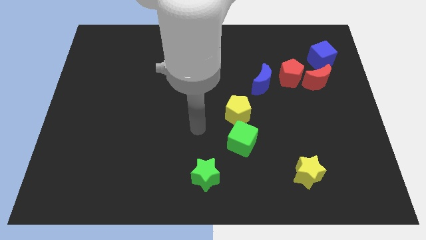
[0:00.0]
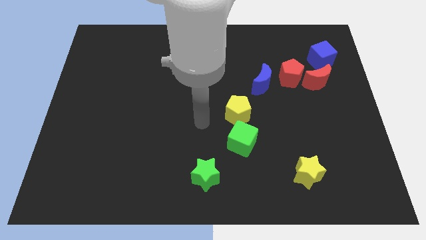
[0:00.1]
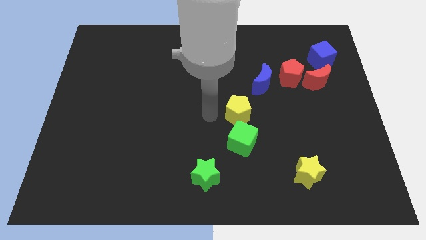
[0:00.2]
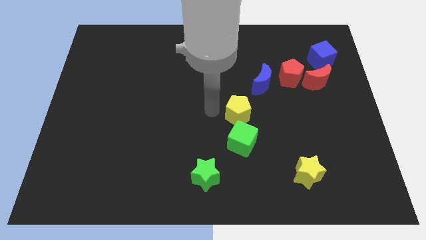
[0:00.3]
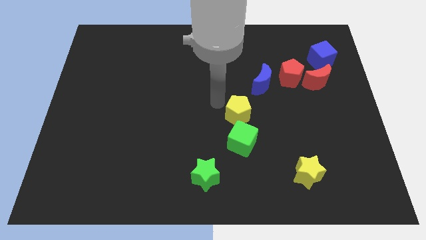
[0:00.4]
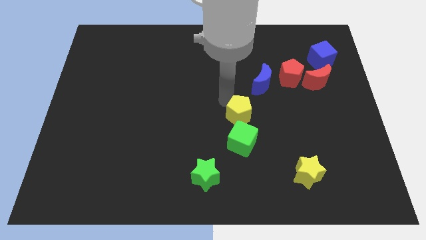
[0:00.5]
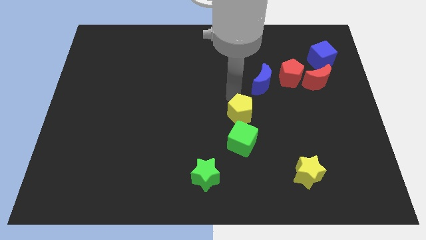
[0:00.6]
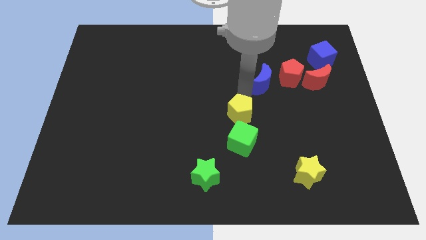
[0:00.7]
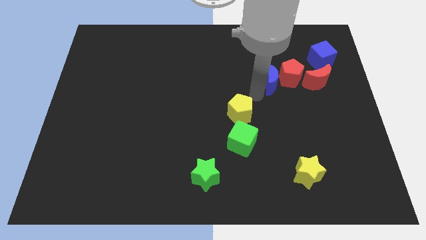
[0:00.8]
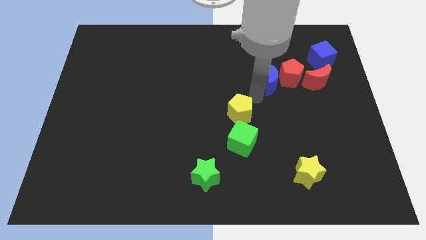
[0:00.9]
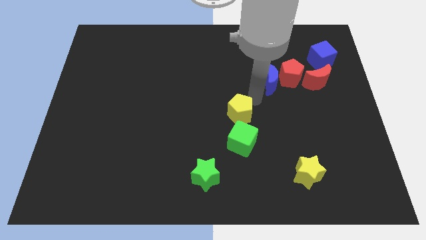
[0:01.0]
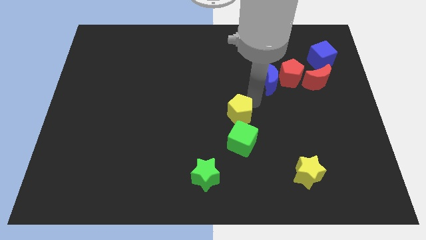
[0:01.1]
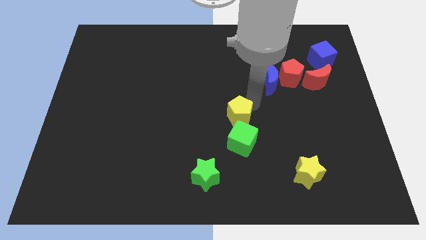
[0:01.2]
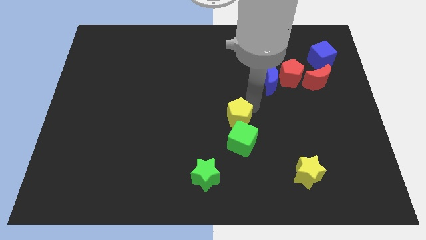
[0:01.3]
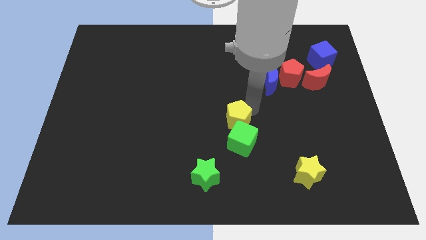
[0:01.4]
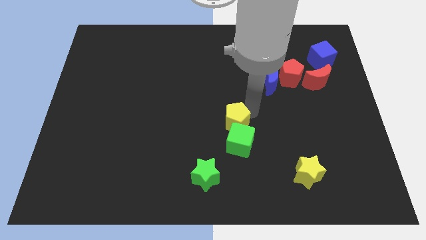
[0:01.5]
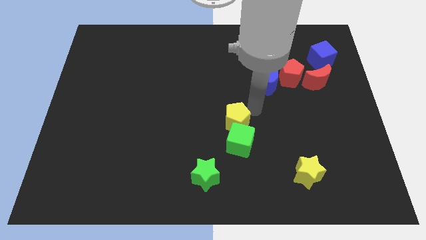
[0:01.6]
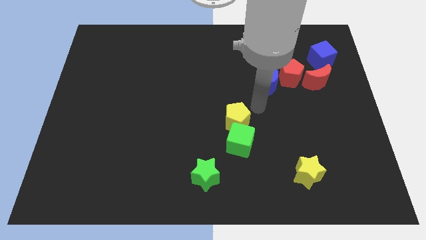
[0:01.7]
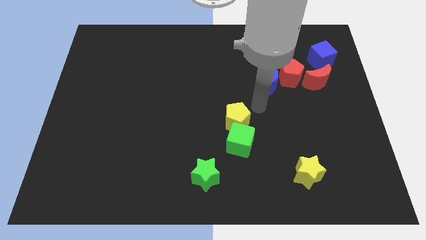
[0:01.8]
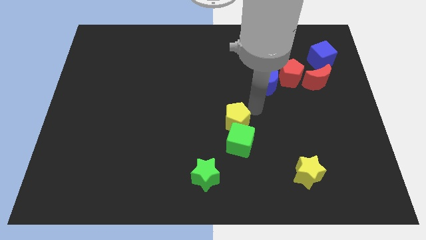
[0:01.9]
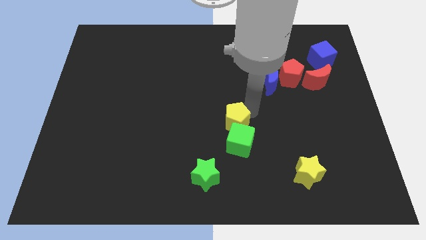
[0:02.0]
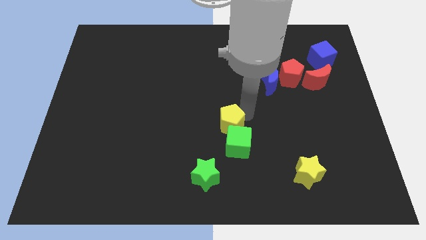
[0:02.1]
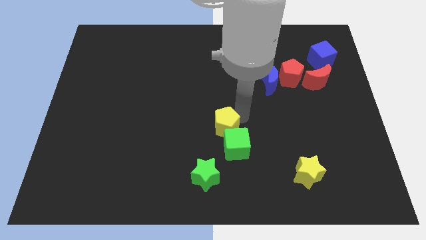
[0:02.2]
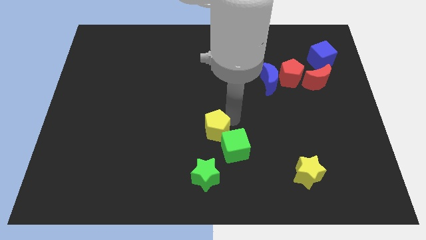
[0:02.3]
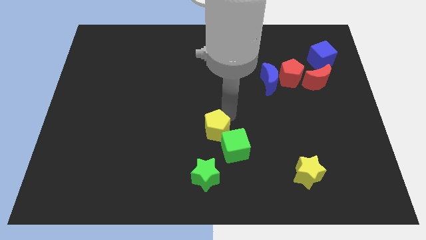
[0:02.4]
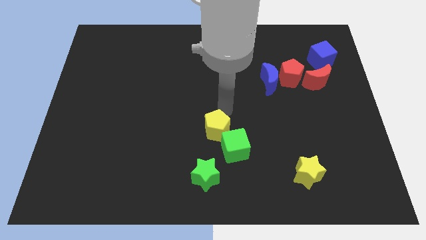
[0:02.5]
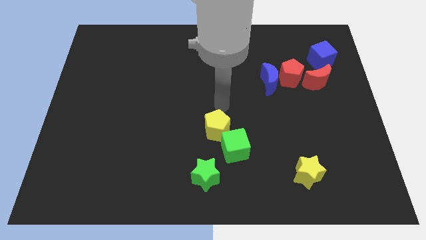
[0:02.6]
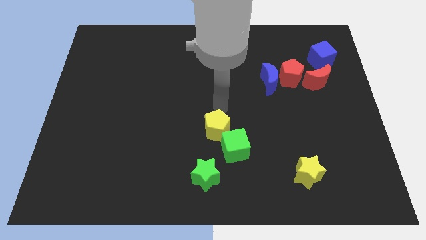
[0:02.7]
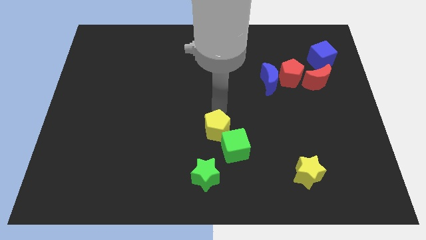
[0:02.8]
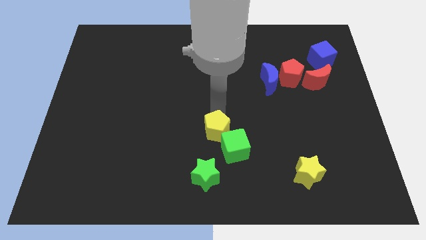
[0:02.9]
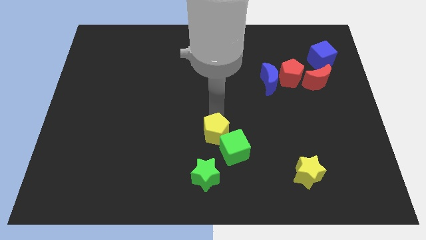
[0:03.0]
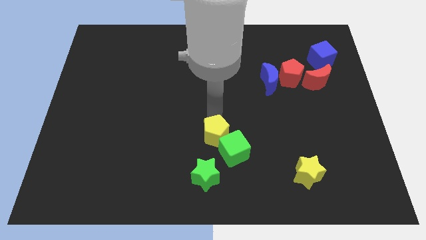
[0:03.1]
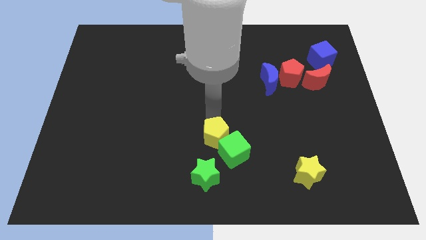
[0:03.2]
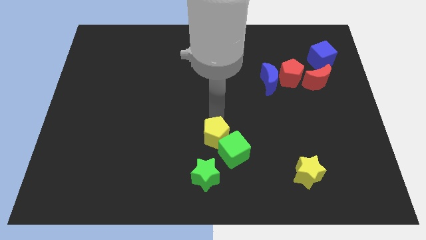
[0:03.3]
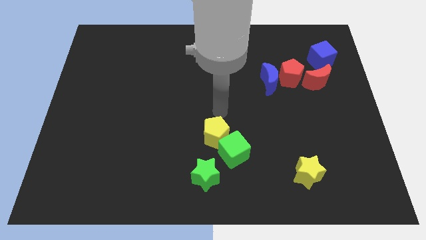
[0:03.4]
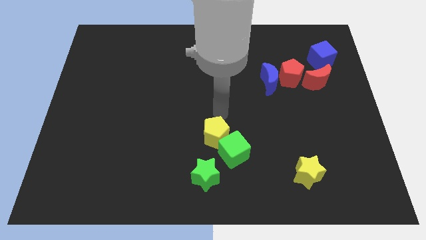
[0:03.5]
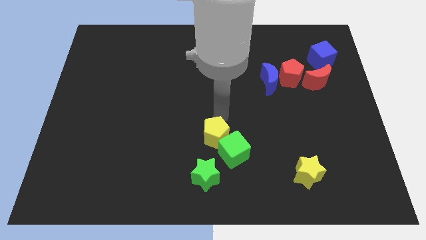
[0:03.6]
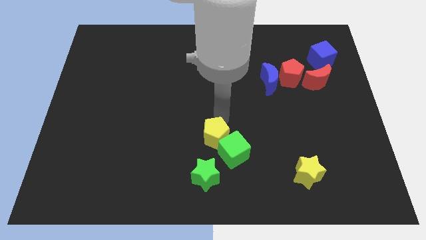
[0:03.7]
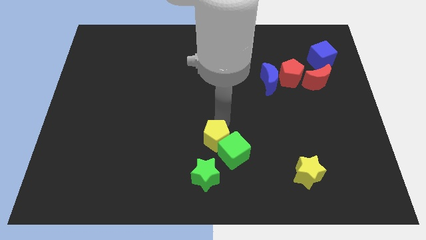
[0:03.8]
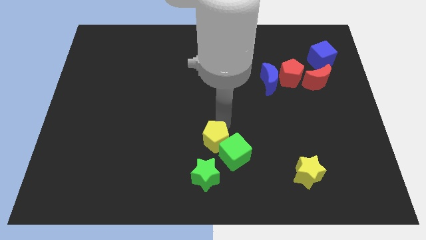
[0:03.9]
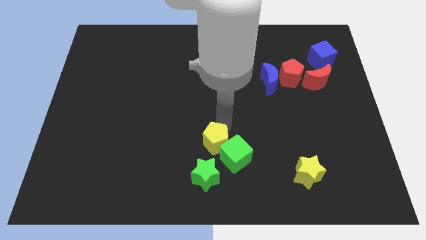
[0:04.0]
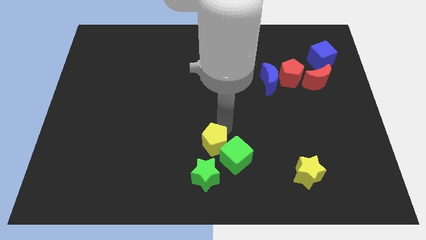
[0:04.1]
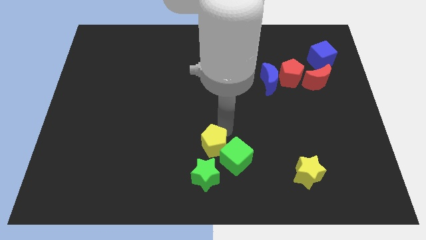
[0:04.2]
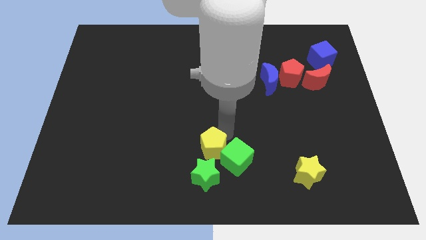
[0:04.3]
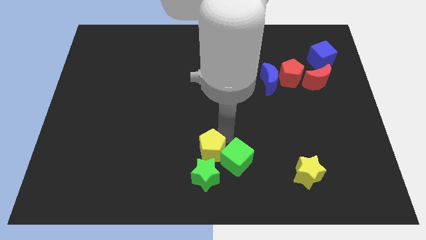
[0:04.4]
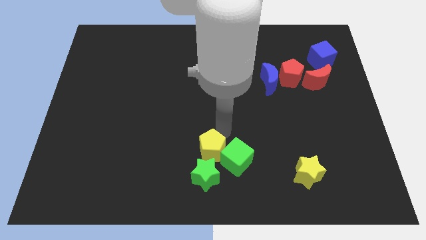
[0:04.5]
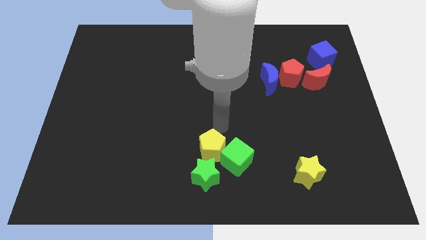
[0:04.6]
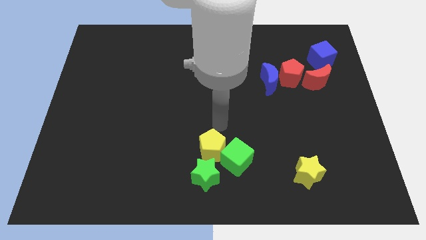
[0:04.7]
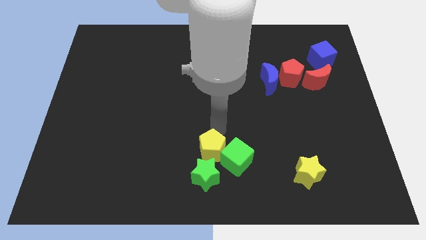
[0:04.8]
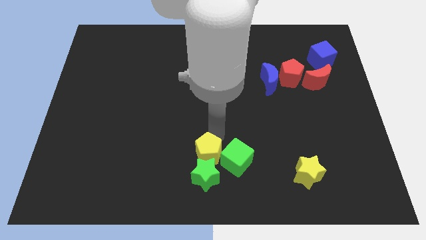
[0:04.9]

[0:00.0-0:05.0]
push the yellow pentagon to the green star

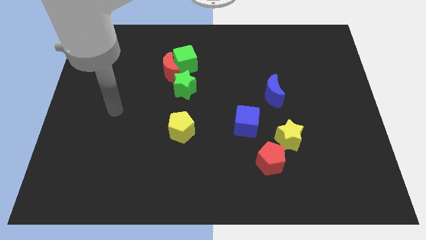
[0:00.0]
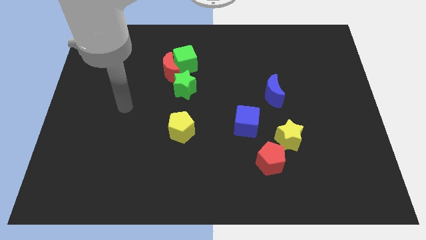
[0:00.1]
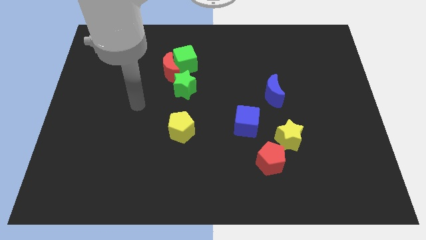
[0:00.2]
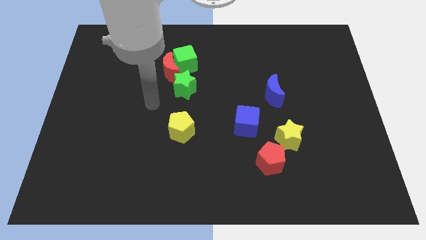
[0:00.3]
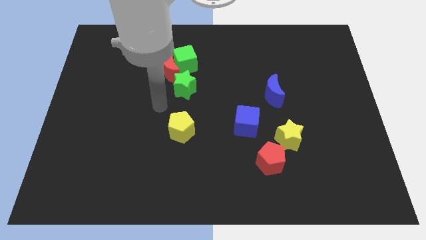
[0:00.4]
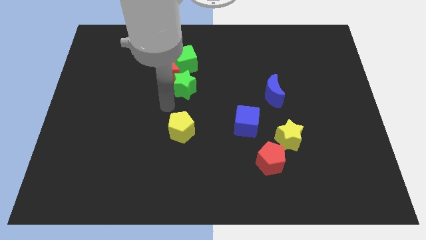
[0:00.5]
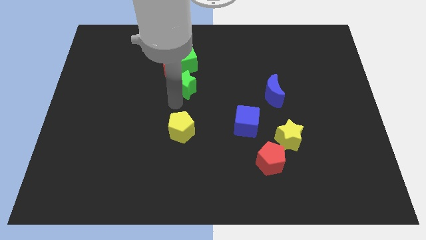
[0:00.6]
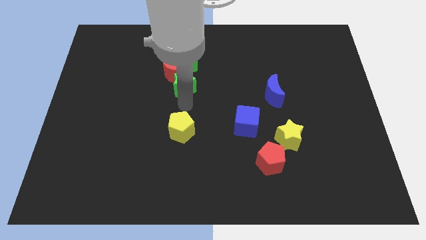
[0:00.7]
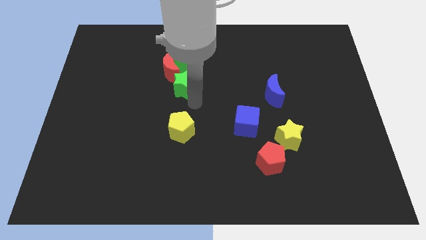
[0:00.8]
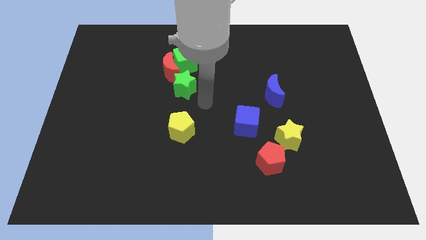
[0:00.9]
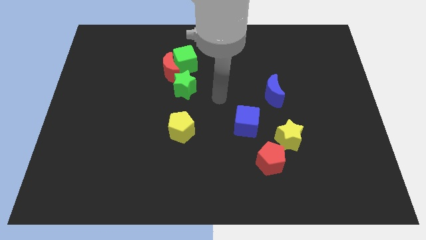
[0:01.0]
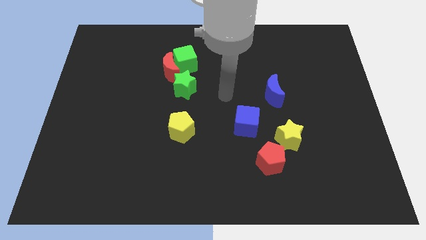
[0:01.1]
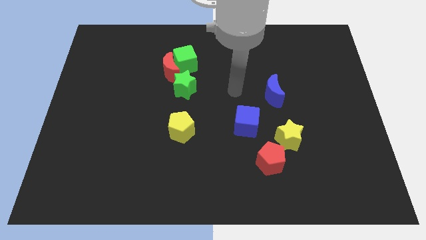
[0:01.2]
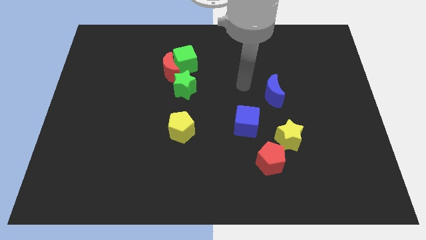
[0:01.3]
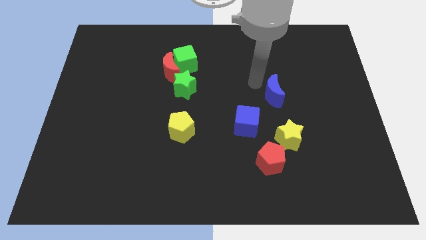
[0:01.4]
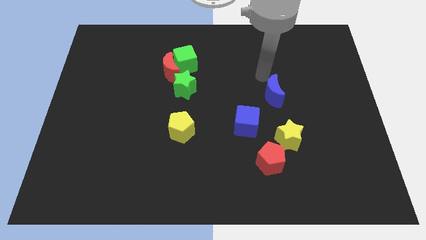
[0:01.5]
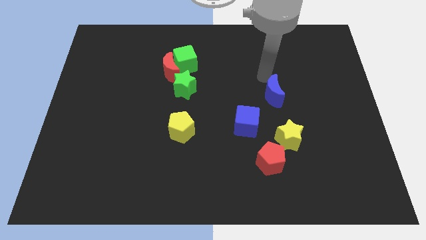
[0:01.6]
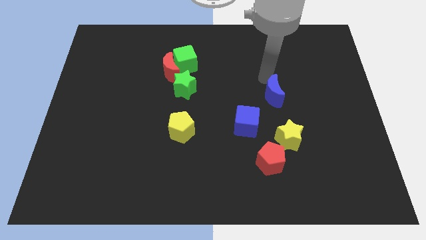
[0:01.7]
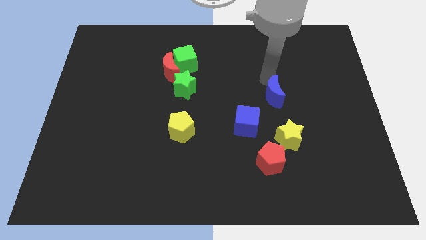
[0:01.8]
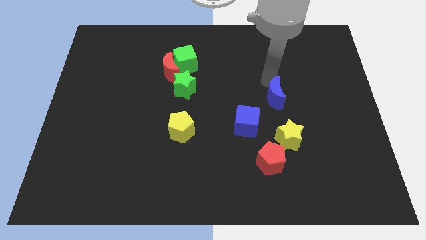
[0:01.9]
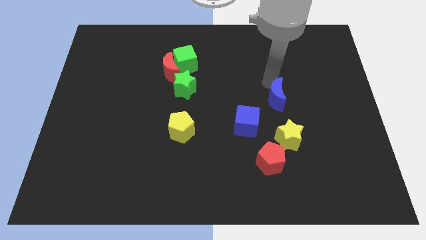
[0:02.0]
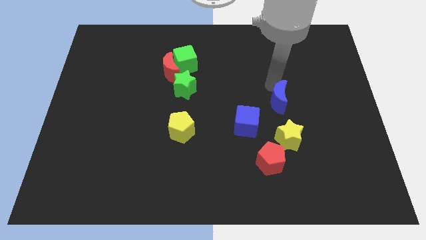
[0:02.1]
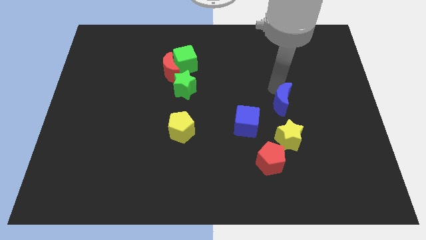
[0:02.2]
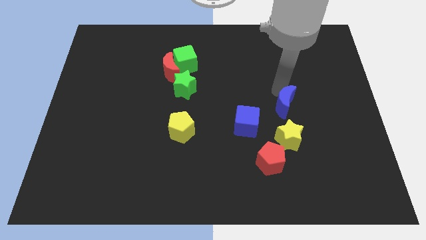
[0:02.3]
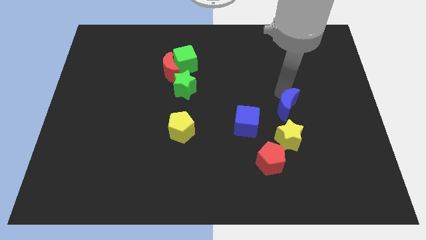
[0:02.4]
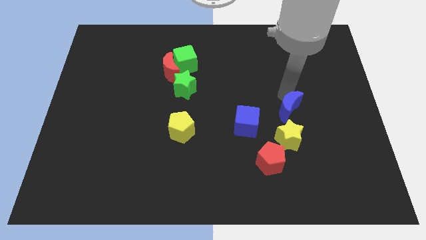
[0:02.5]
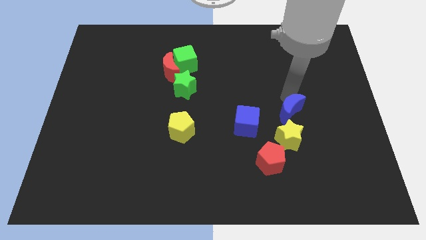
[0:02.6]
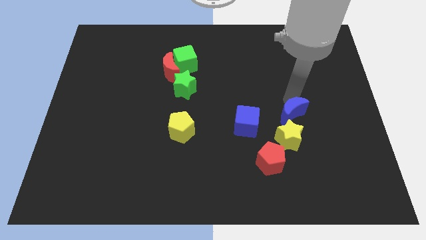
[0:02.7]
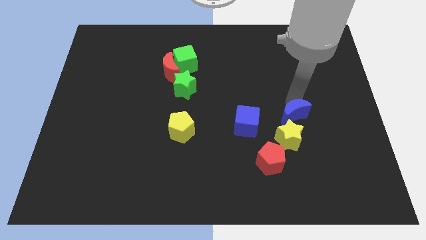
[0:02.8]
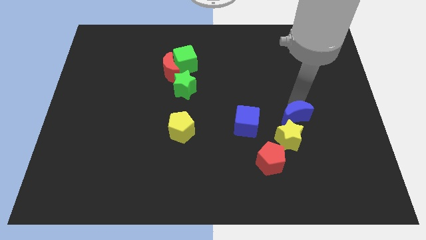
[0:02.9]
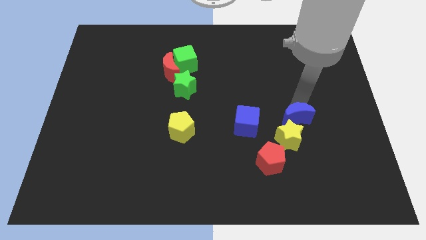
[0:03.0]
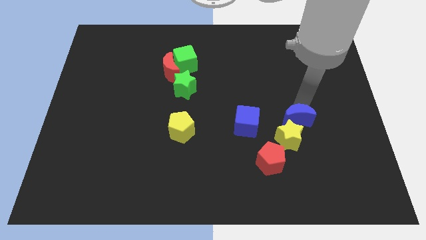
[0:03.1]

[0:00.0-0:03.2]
push the blue moon to the yellow star
